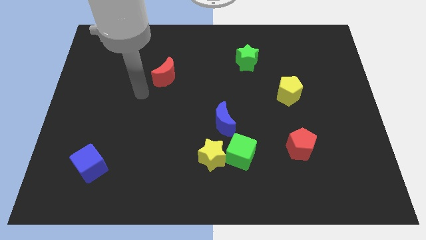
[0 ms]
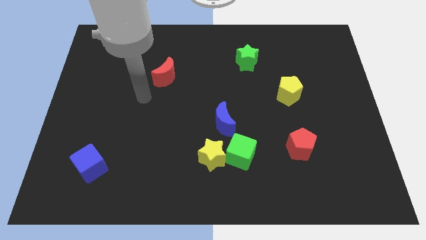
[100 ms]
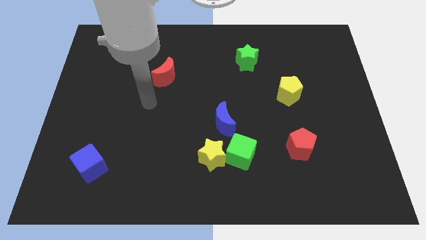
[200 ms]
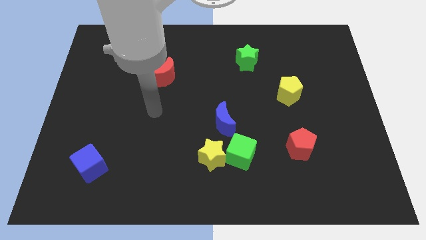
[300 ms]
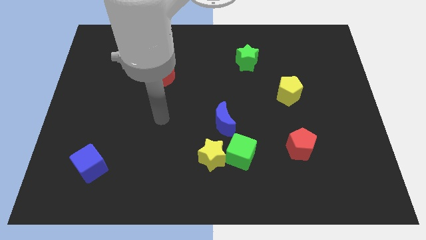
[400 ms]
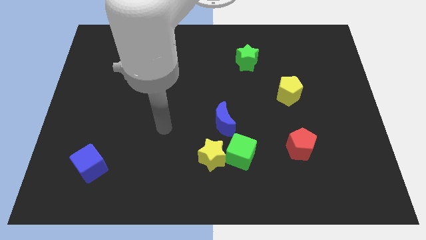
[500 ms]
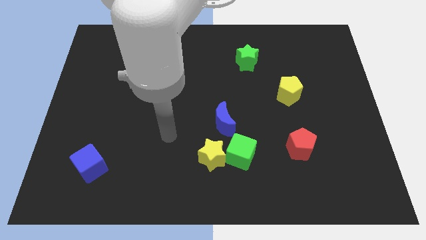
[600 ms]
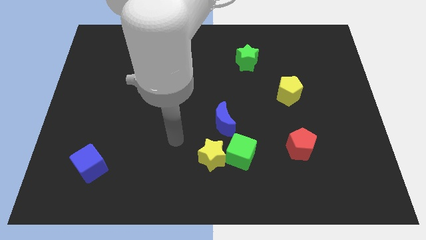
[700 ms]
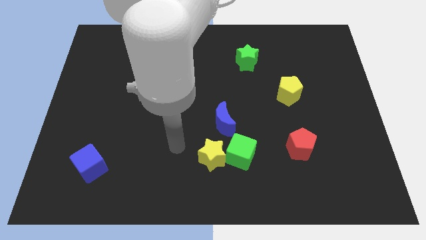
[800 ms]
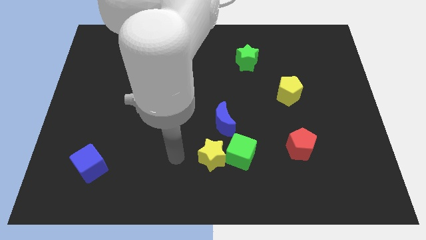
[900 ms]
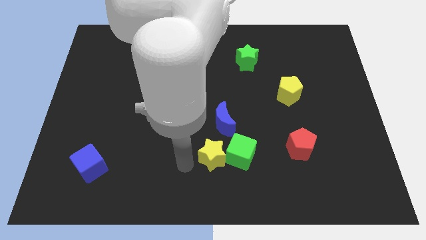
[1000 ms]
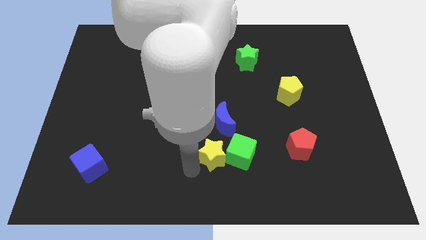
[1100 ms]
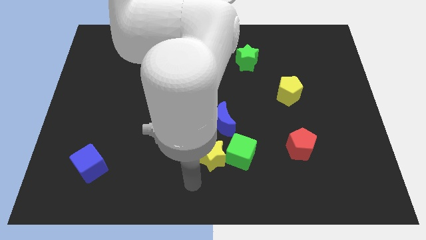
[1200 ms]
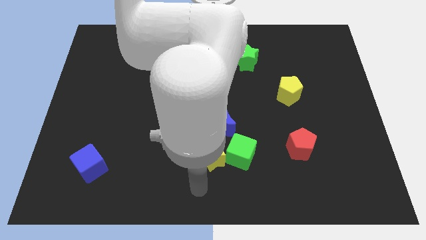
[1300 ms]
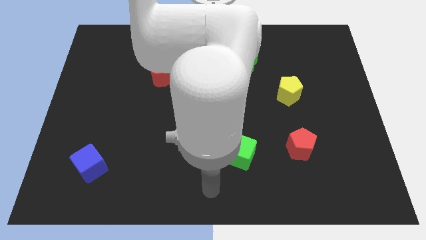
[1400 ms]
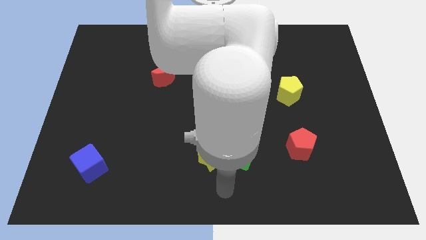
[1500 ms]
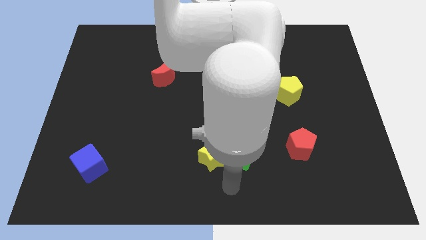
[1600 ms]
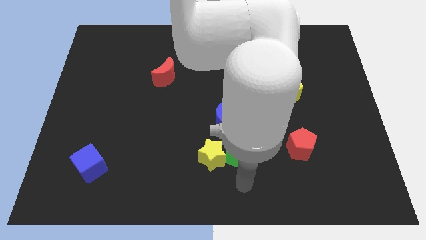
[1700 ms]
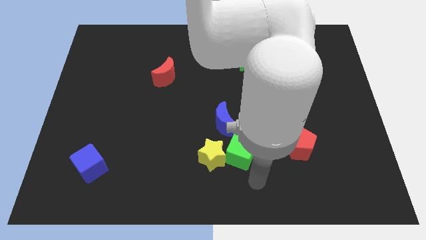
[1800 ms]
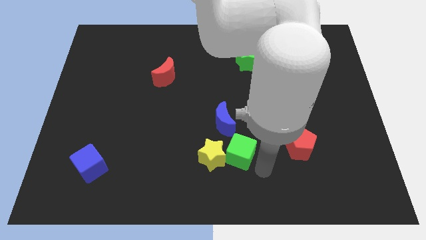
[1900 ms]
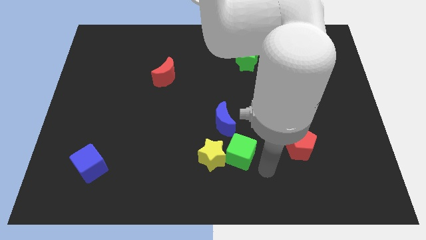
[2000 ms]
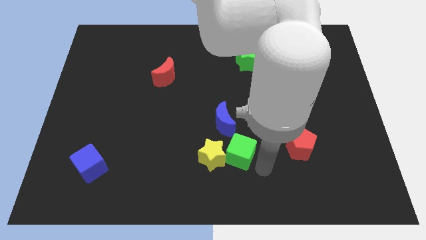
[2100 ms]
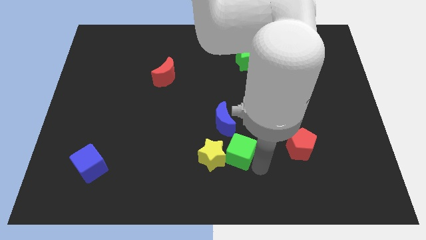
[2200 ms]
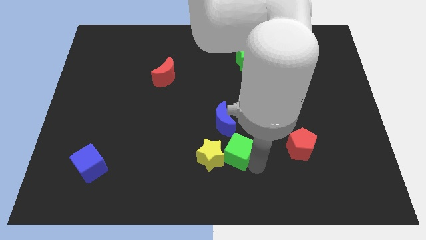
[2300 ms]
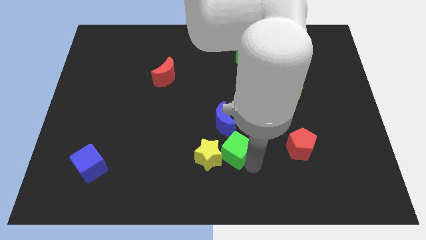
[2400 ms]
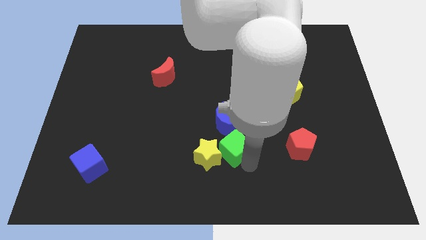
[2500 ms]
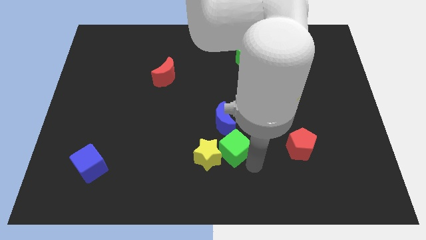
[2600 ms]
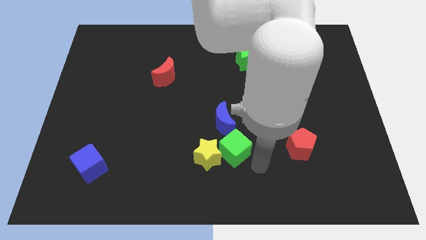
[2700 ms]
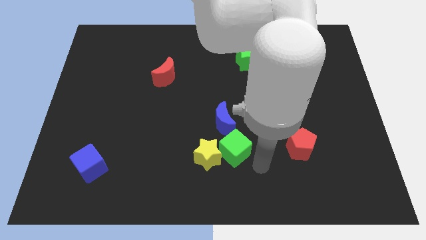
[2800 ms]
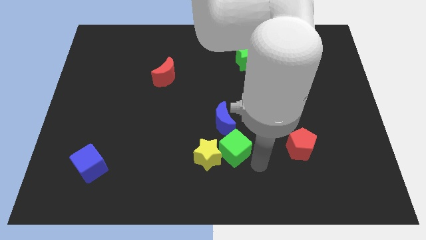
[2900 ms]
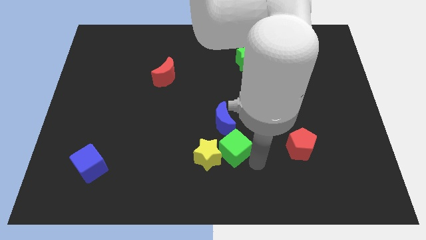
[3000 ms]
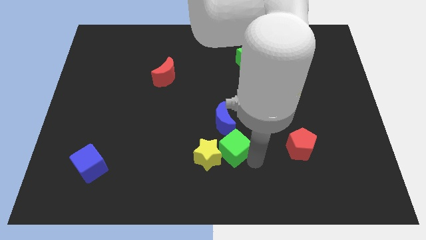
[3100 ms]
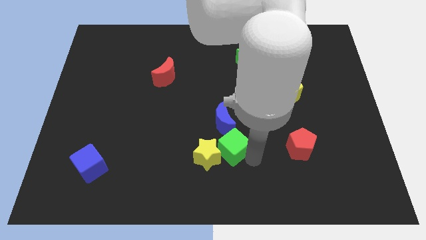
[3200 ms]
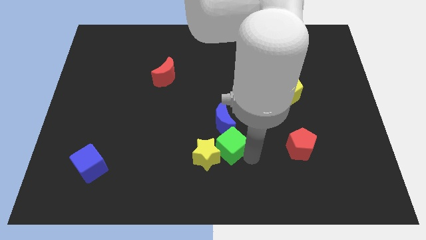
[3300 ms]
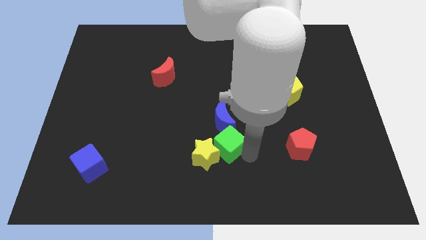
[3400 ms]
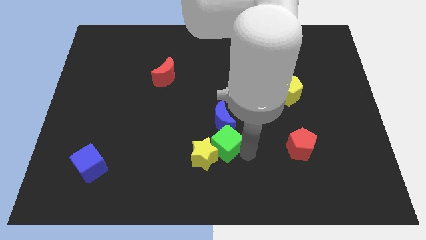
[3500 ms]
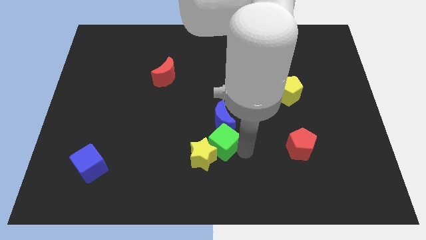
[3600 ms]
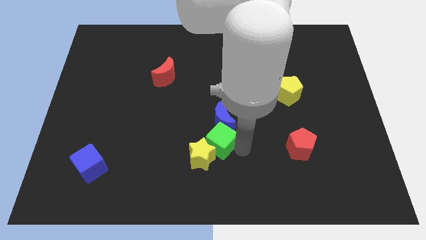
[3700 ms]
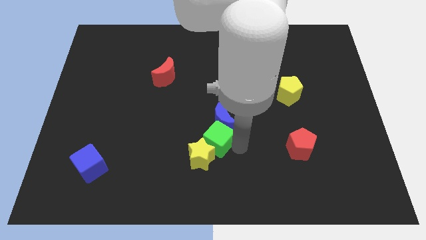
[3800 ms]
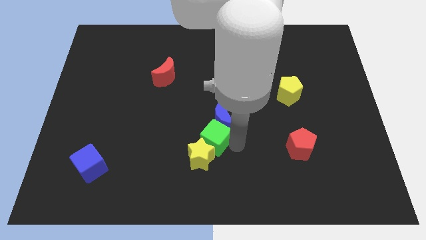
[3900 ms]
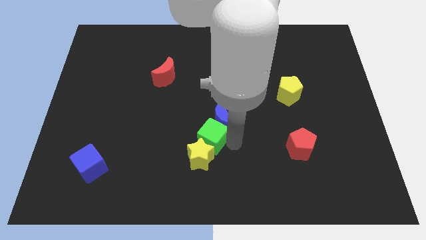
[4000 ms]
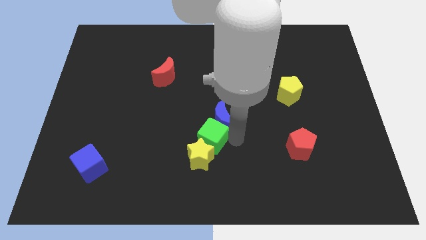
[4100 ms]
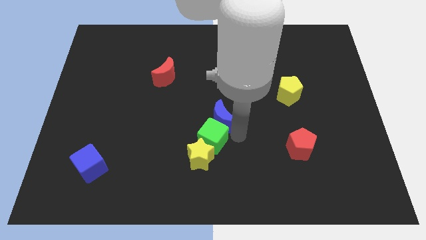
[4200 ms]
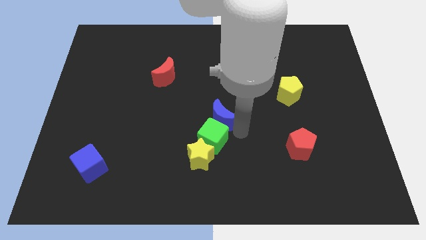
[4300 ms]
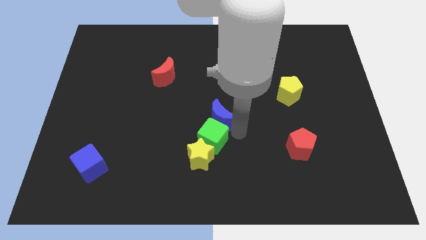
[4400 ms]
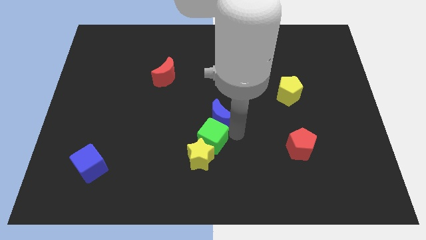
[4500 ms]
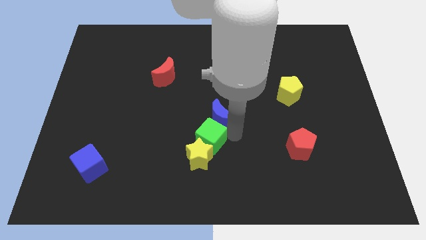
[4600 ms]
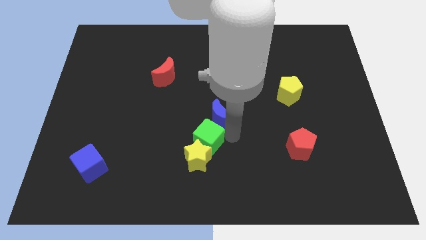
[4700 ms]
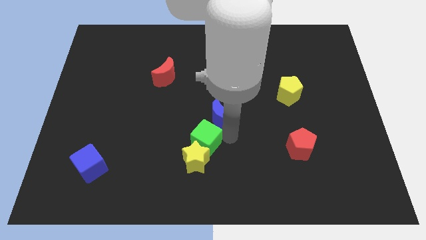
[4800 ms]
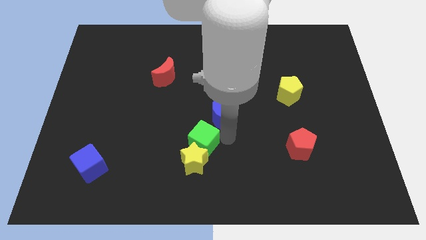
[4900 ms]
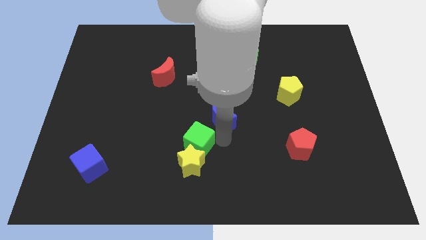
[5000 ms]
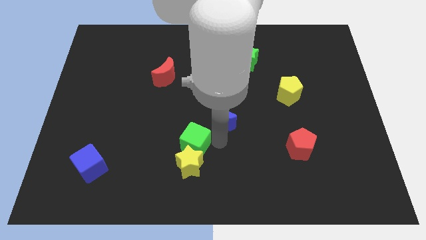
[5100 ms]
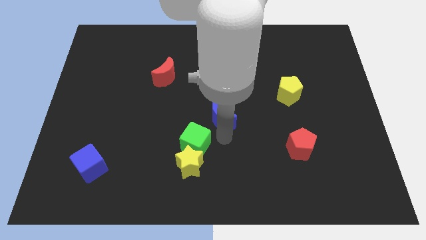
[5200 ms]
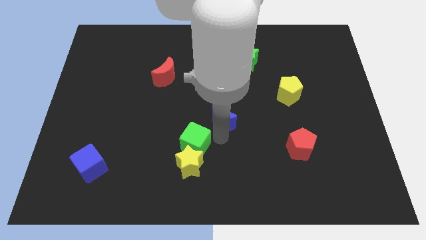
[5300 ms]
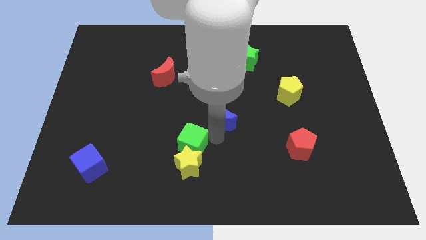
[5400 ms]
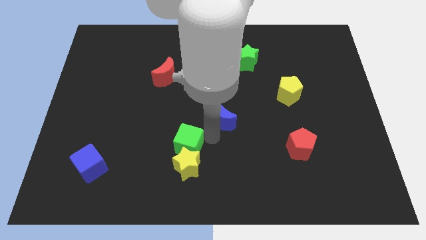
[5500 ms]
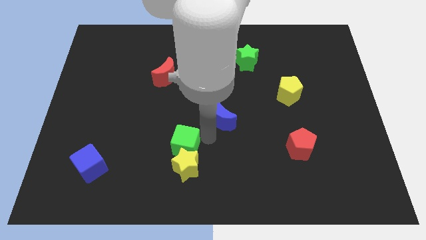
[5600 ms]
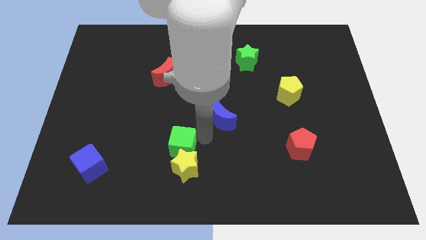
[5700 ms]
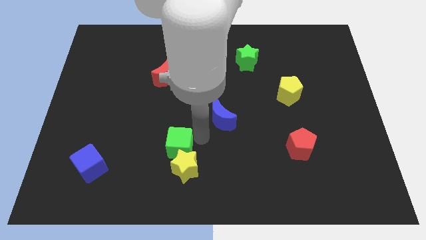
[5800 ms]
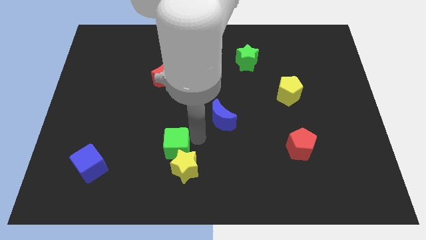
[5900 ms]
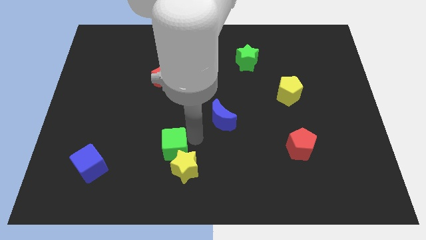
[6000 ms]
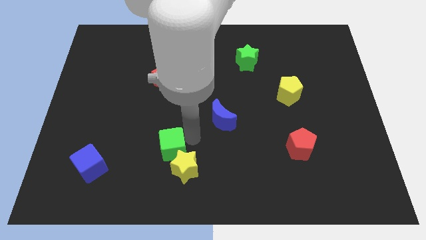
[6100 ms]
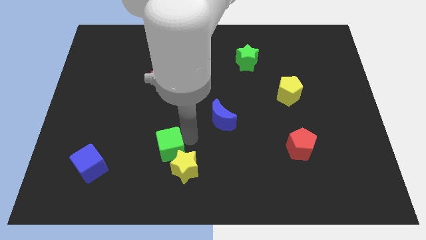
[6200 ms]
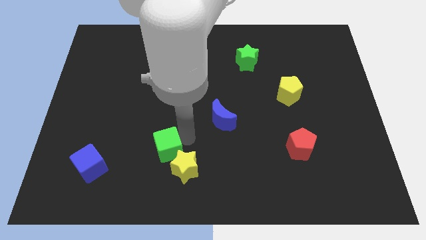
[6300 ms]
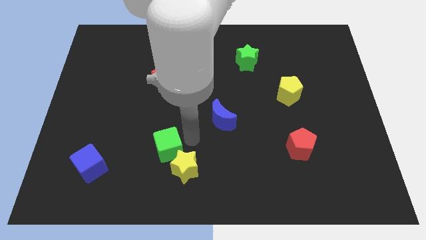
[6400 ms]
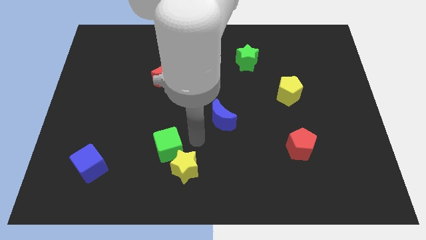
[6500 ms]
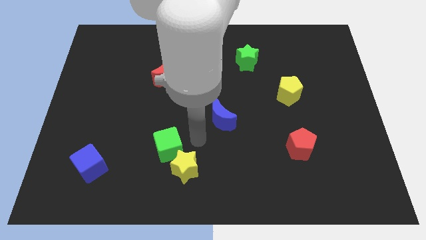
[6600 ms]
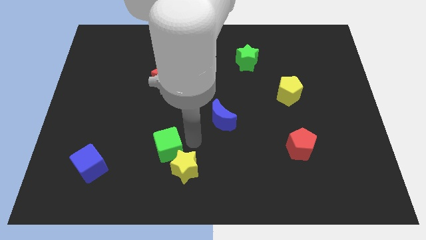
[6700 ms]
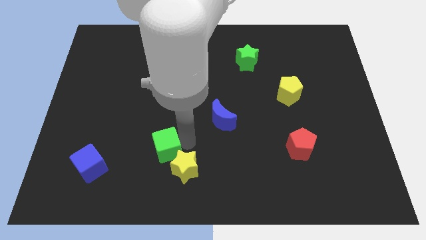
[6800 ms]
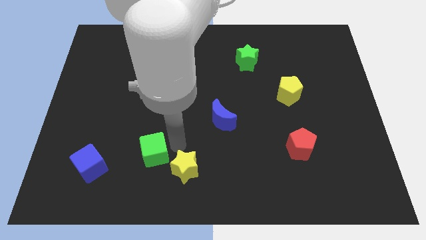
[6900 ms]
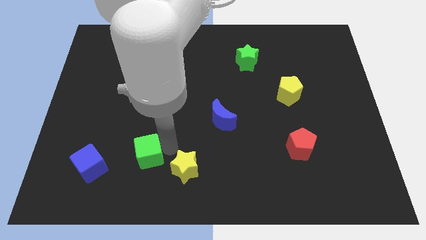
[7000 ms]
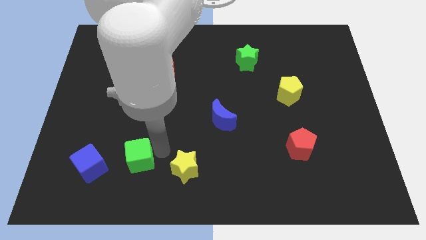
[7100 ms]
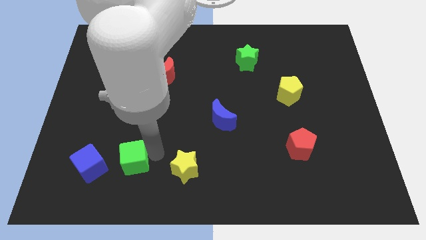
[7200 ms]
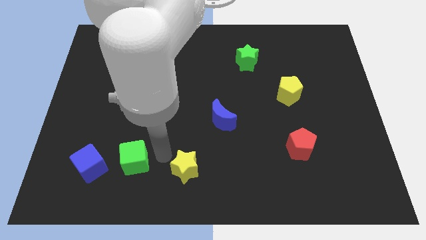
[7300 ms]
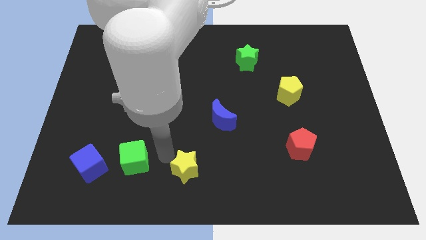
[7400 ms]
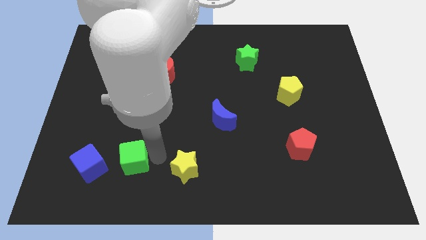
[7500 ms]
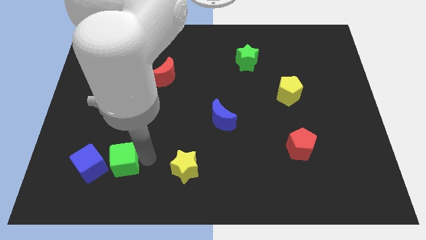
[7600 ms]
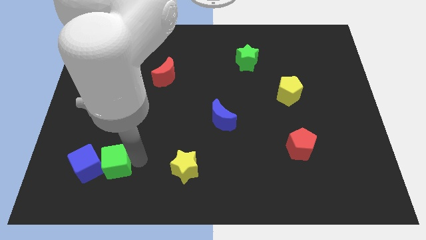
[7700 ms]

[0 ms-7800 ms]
put the green cube close to the blue cube
